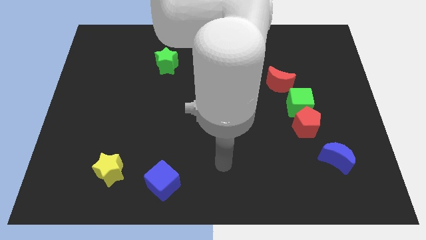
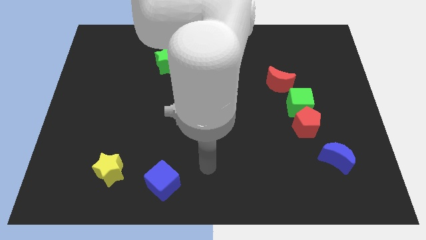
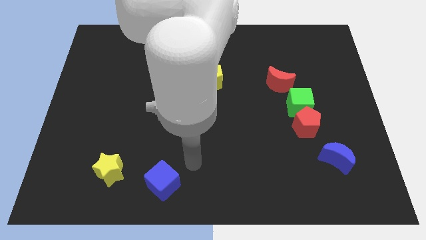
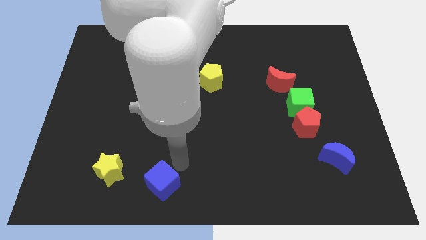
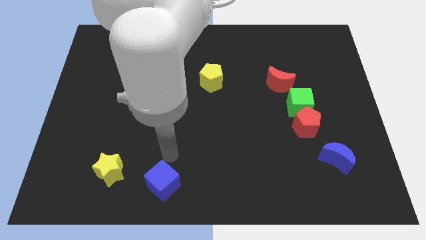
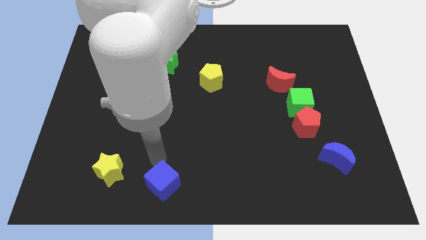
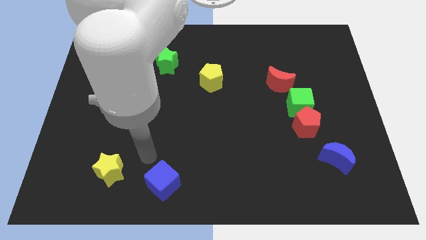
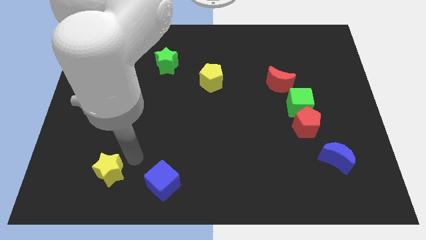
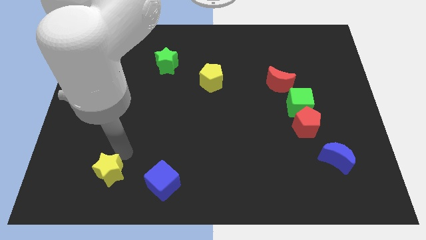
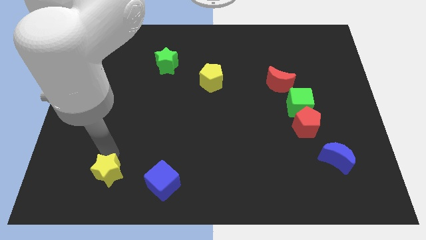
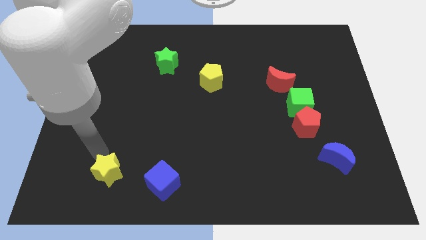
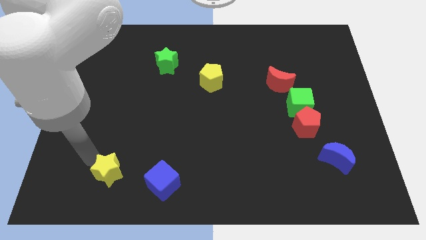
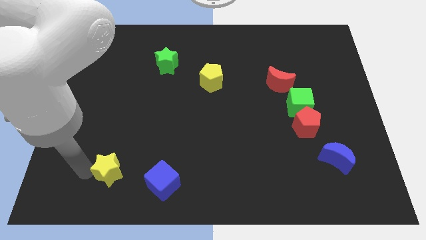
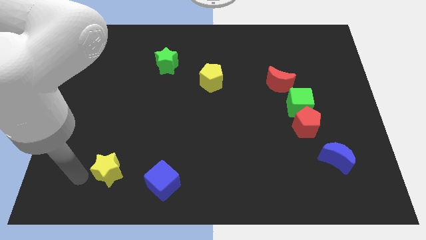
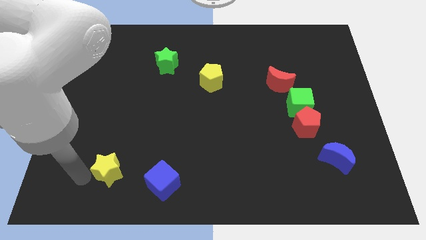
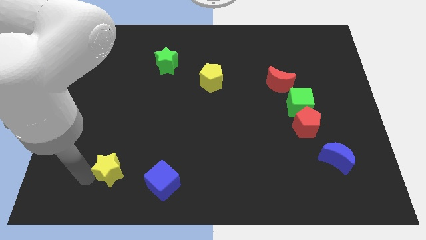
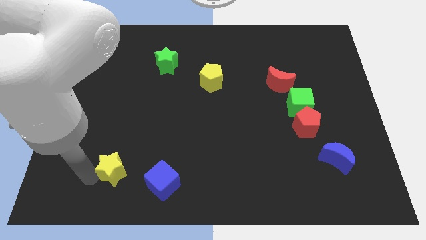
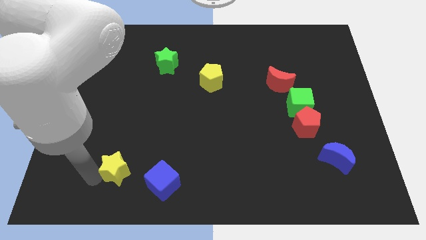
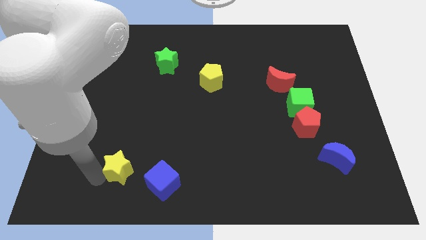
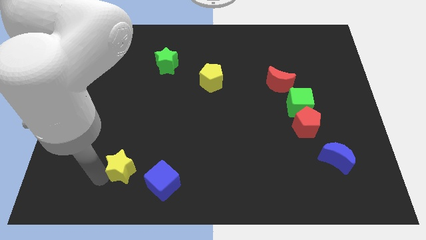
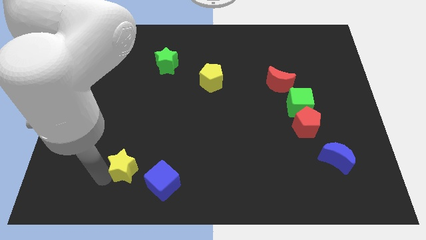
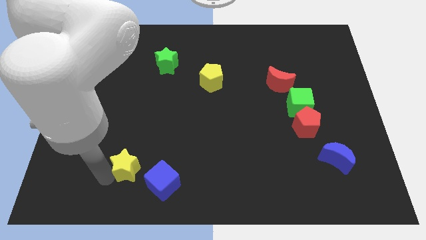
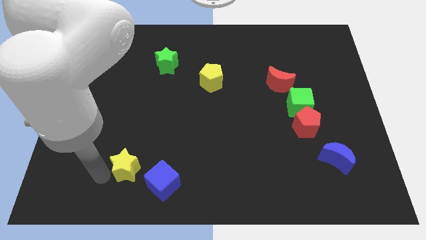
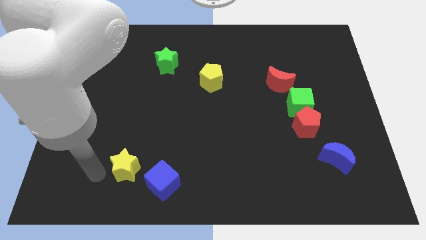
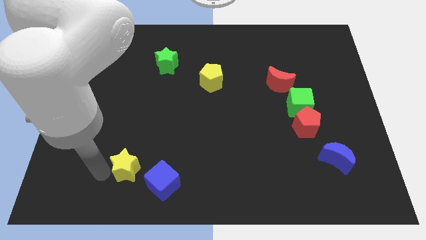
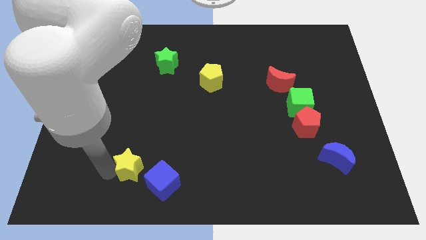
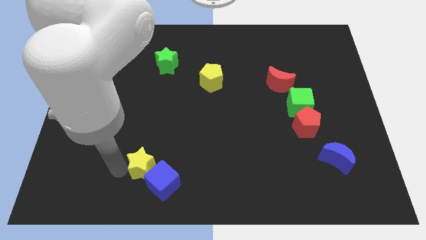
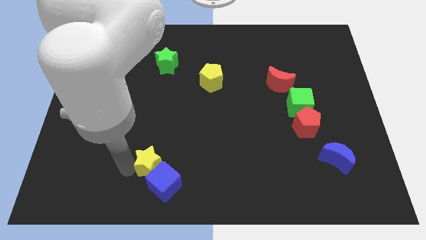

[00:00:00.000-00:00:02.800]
push the yellow star to the right slightly

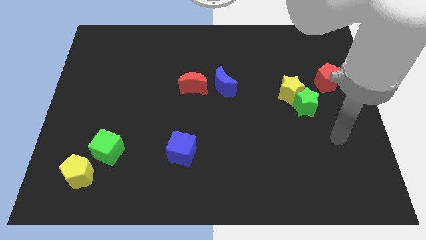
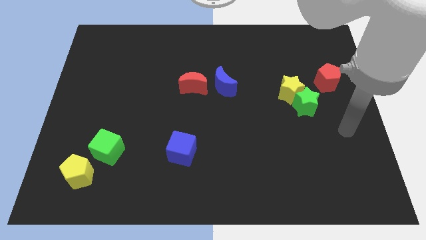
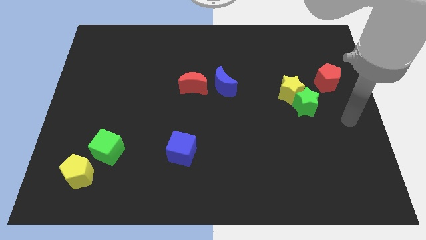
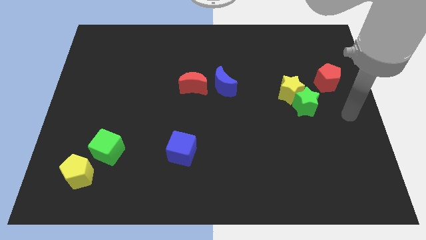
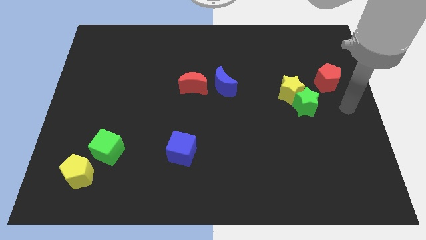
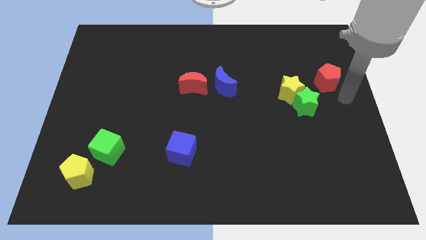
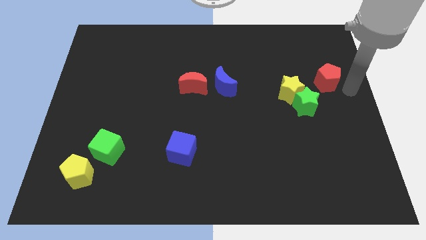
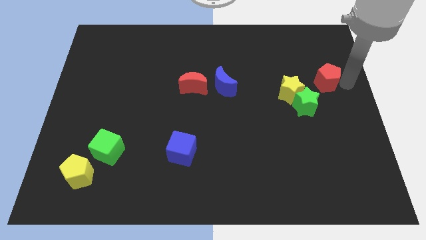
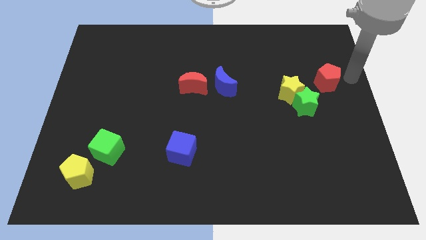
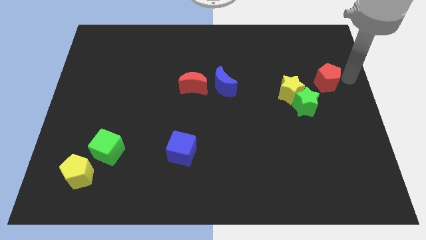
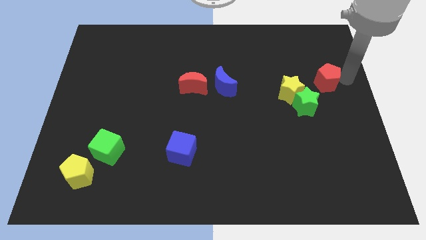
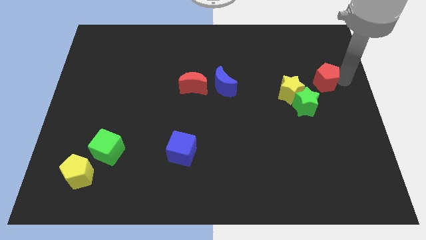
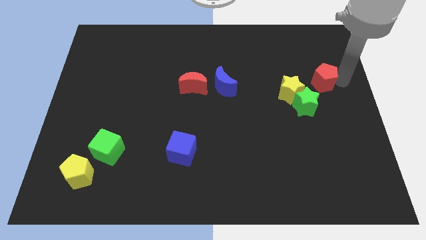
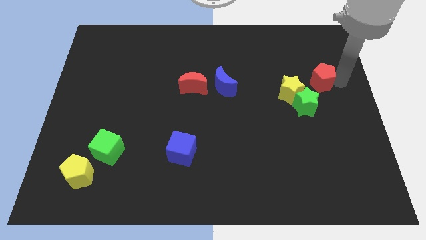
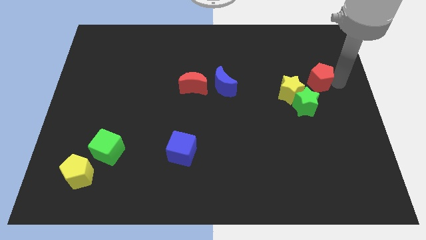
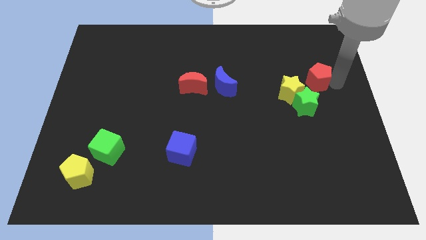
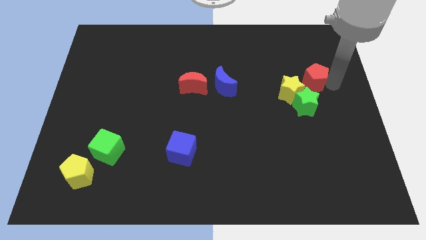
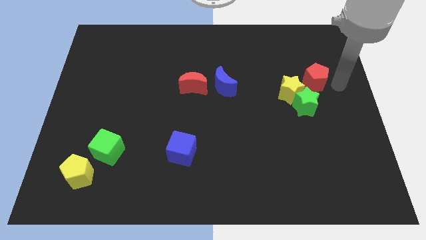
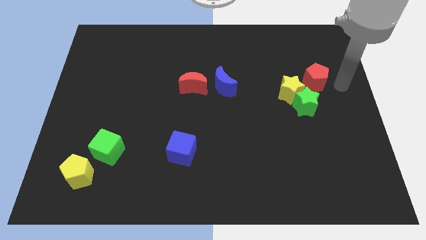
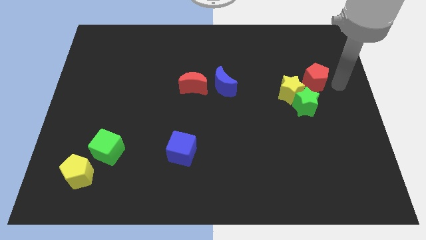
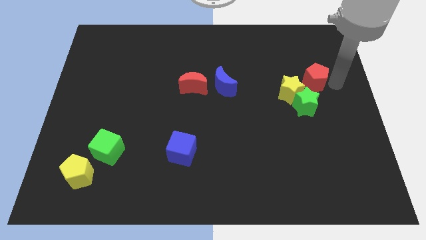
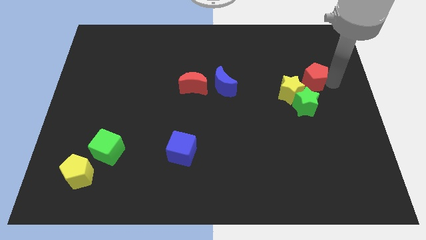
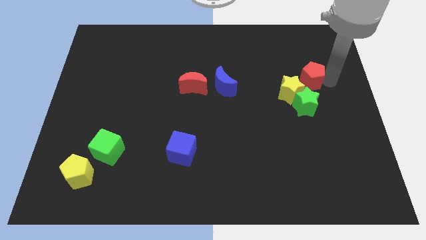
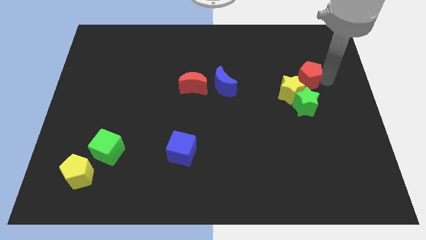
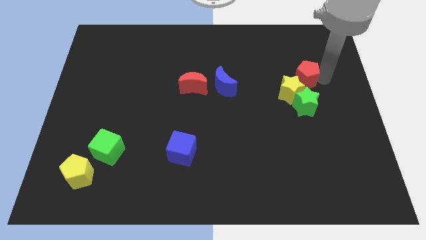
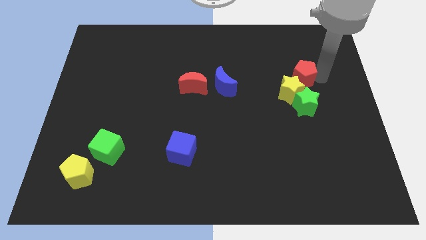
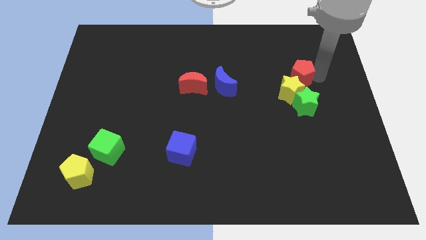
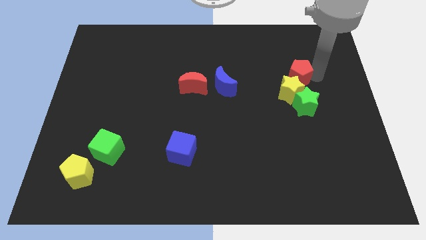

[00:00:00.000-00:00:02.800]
slightly move the red pentagon left

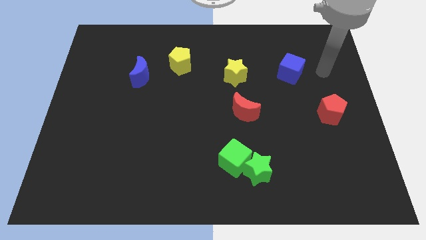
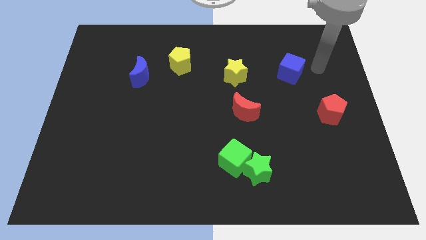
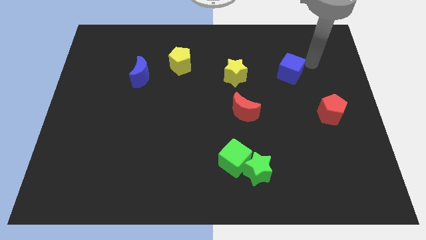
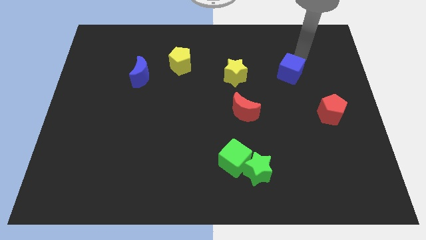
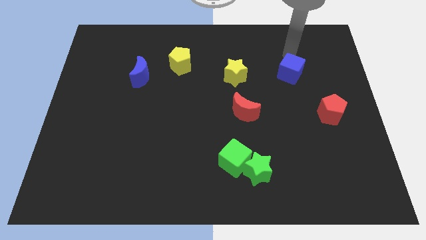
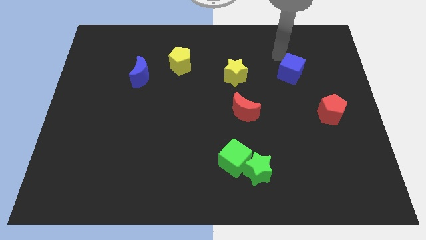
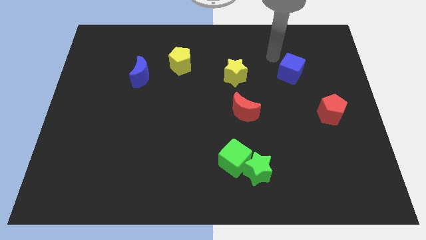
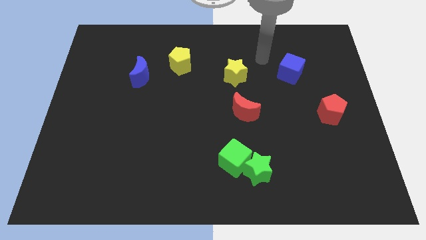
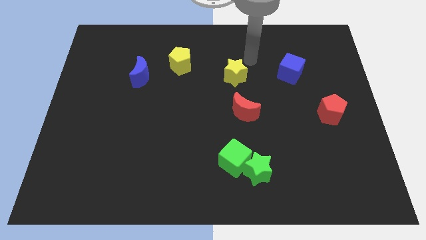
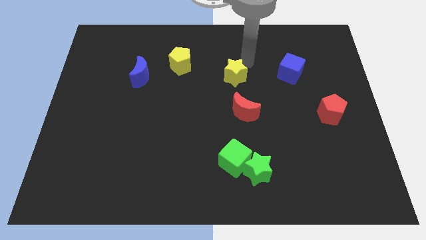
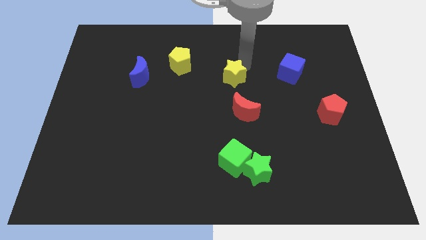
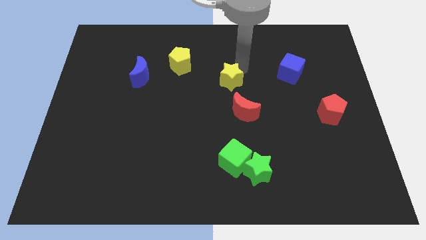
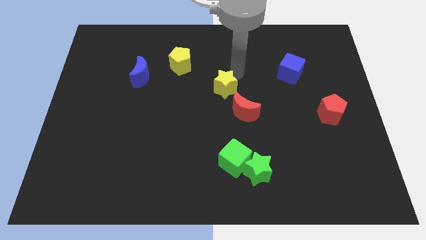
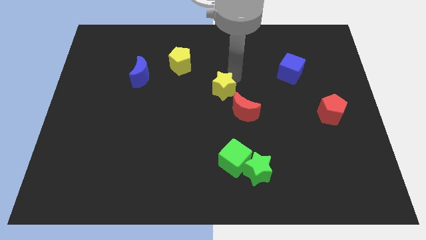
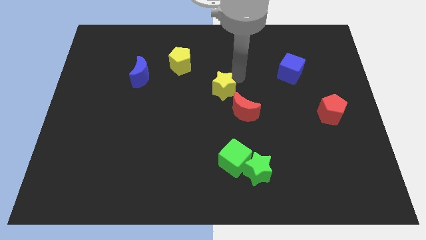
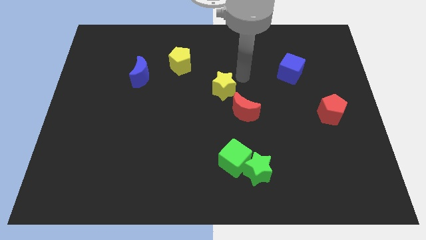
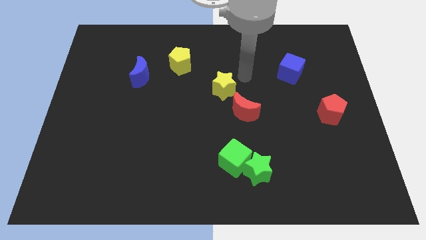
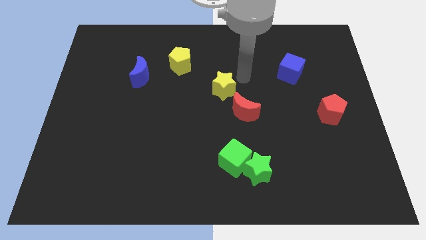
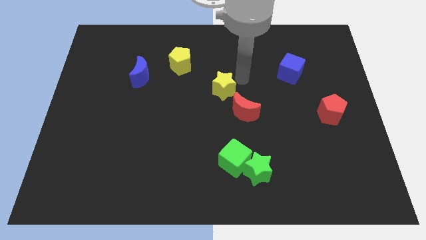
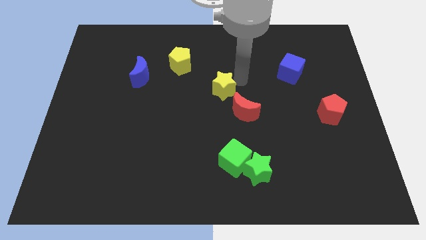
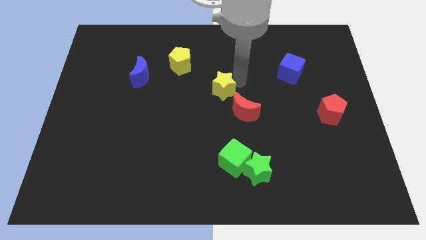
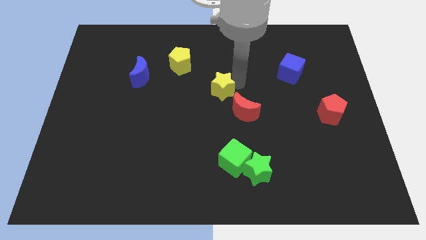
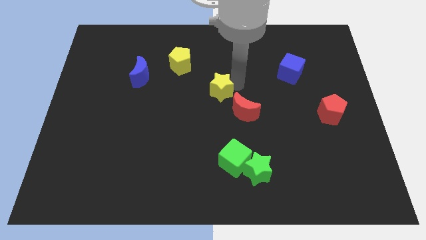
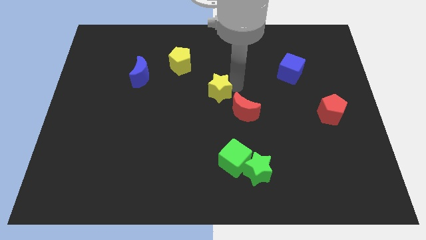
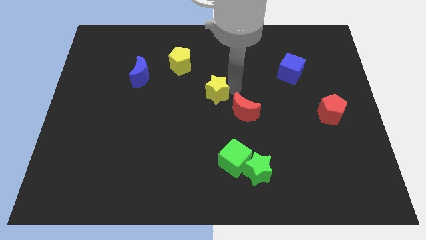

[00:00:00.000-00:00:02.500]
move the yellow star downwards and to the left diagonally slightly
